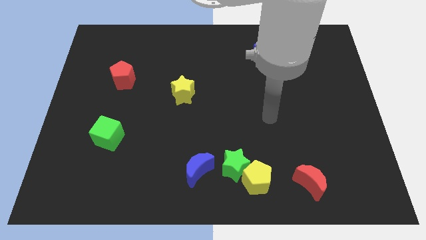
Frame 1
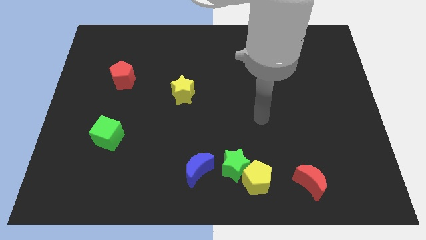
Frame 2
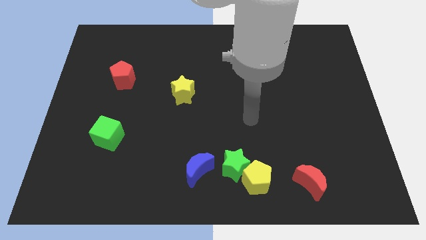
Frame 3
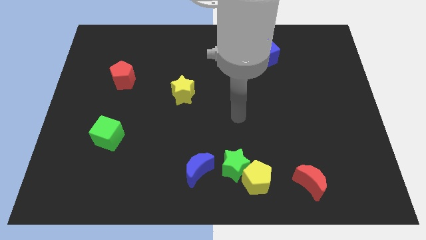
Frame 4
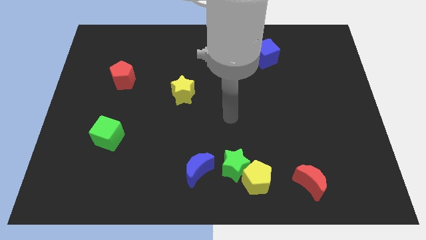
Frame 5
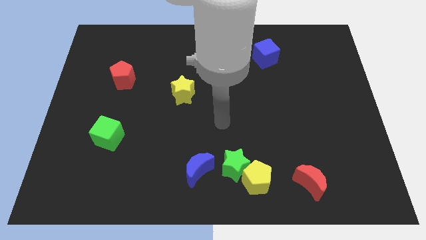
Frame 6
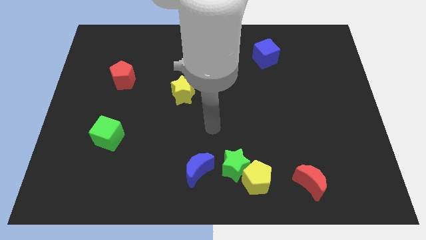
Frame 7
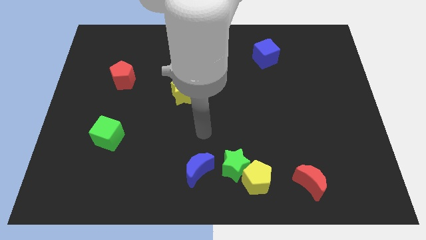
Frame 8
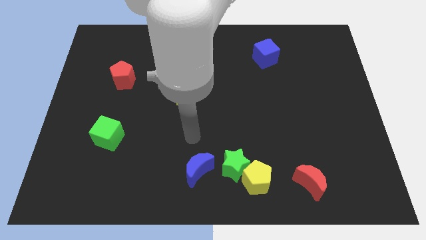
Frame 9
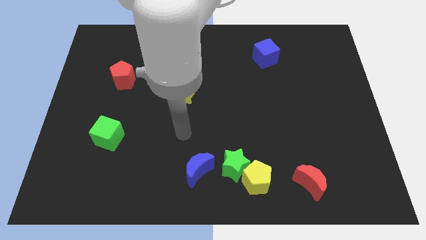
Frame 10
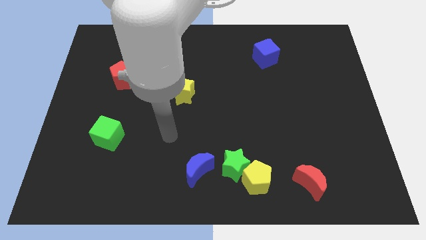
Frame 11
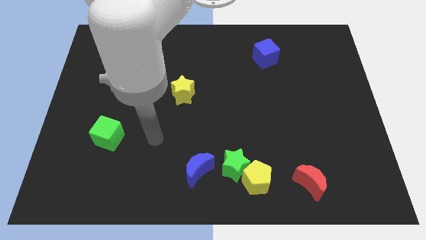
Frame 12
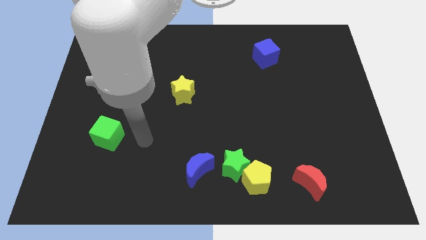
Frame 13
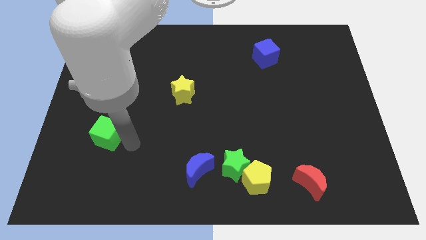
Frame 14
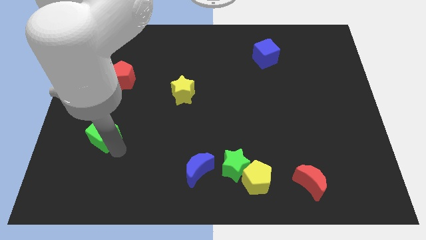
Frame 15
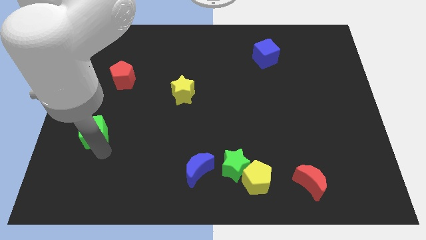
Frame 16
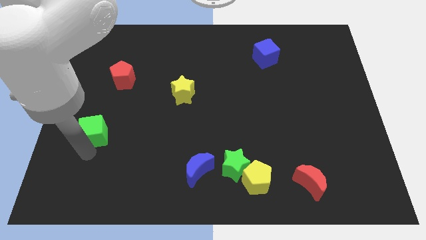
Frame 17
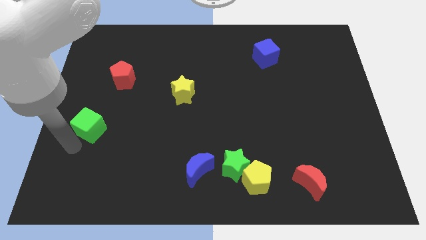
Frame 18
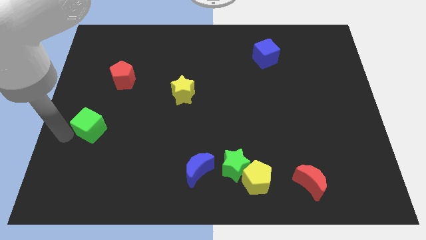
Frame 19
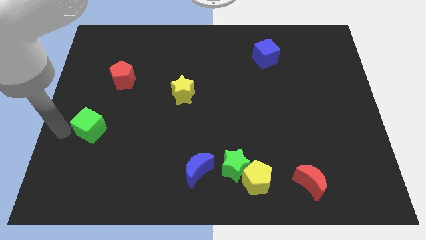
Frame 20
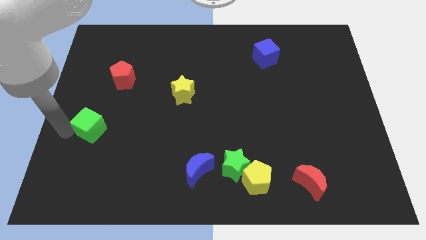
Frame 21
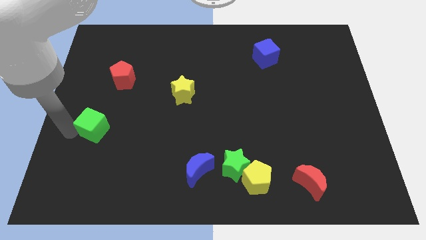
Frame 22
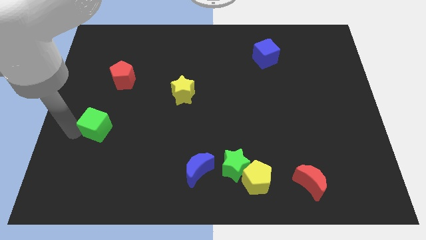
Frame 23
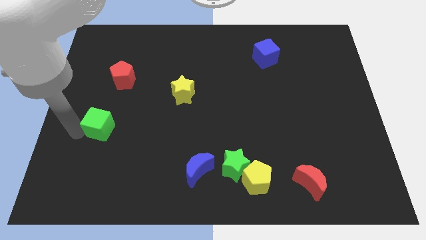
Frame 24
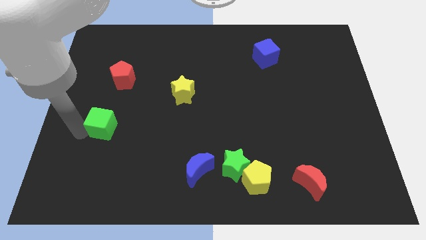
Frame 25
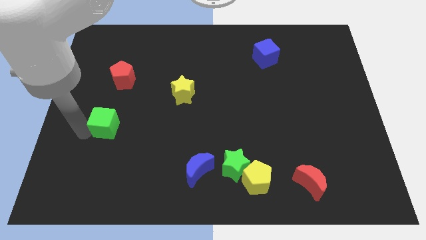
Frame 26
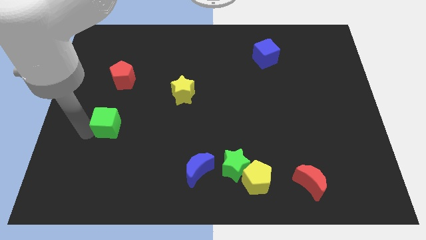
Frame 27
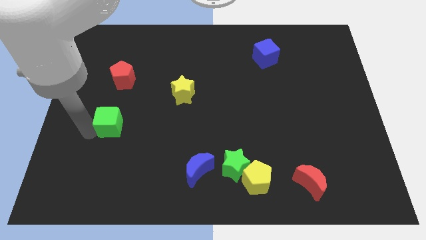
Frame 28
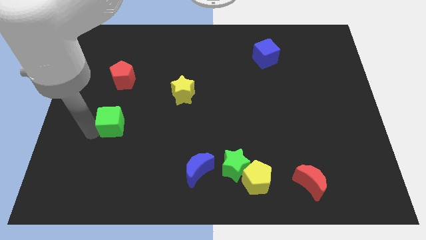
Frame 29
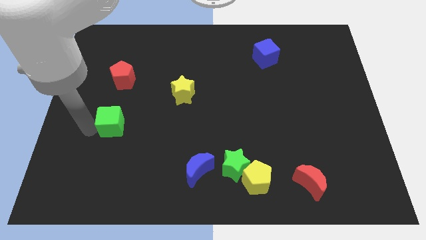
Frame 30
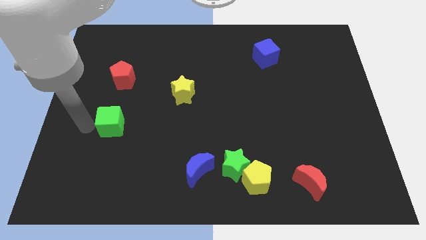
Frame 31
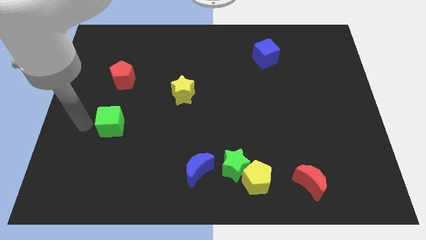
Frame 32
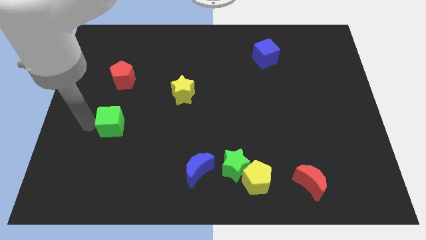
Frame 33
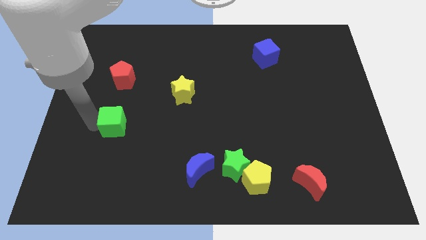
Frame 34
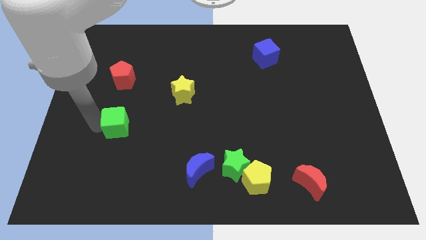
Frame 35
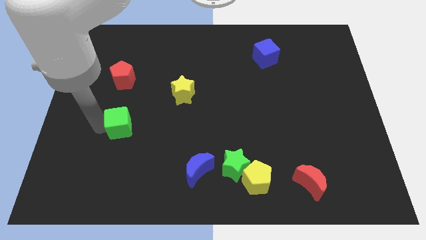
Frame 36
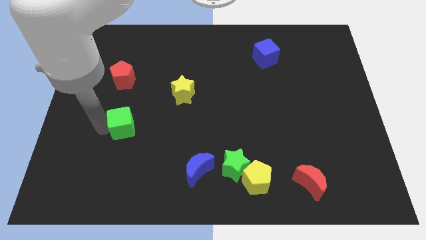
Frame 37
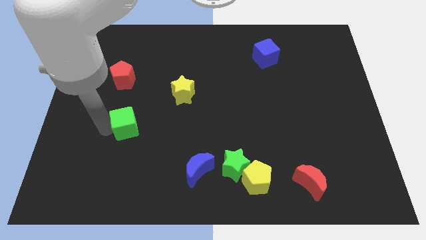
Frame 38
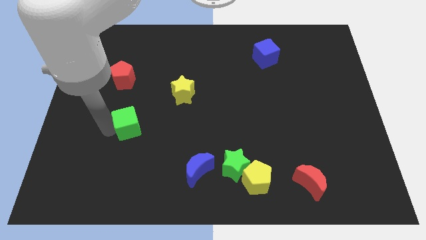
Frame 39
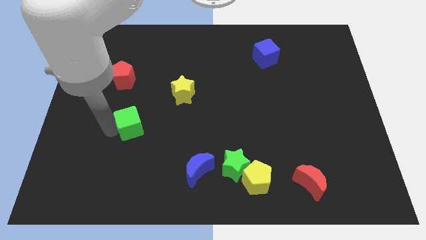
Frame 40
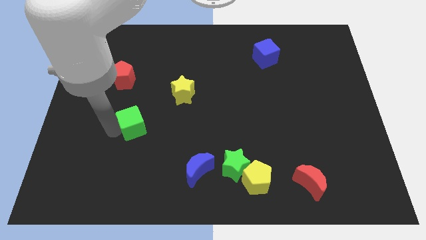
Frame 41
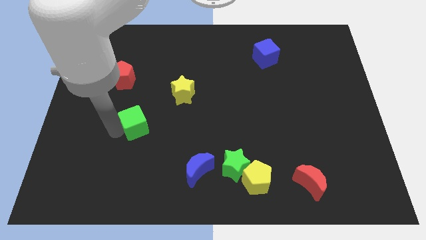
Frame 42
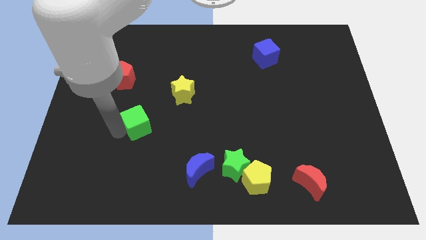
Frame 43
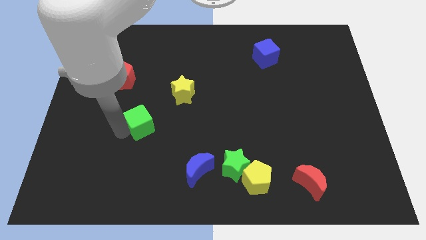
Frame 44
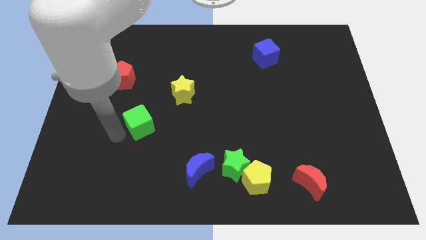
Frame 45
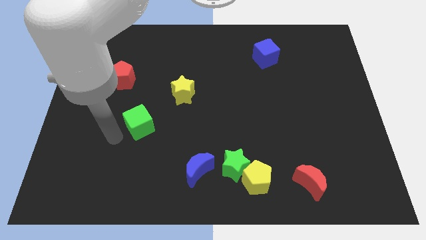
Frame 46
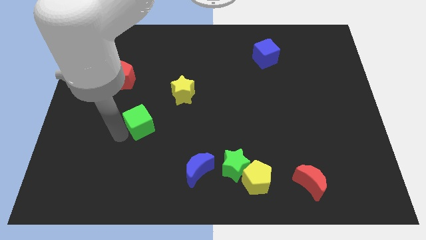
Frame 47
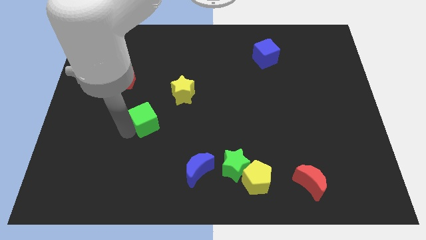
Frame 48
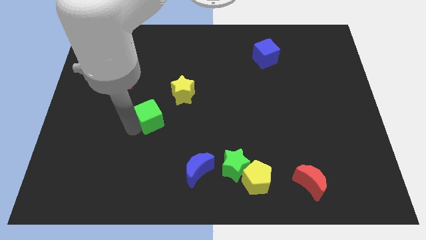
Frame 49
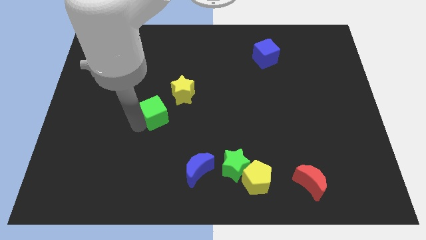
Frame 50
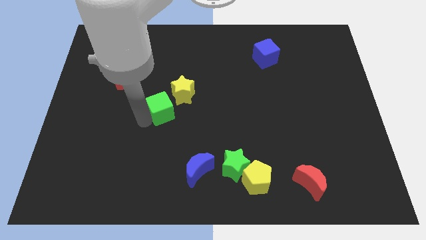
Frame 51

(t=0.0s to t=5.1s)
move the green cube to the middle of the board

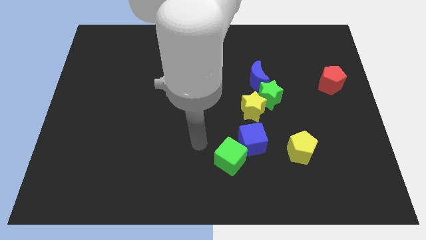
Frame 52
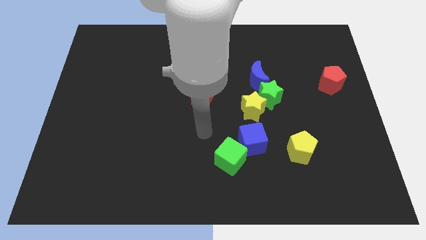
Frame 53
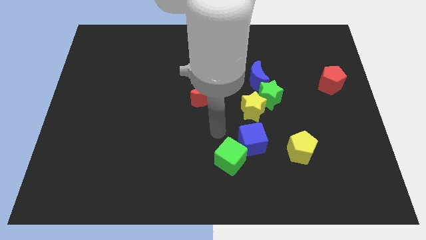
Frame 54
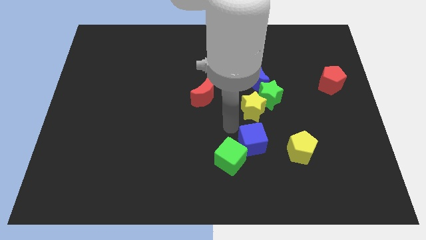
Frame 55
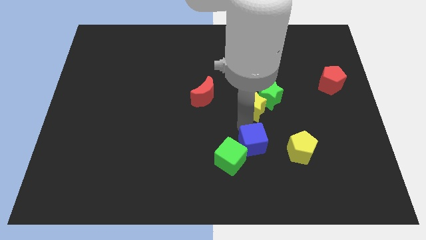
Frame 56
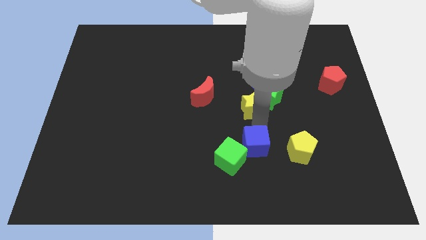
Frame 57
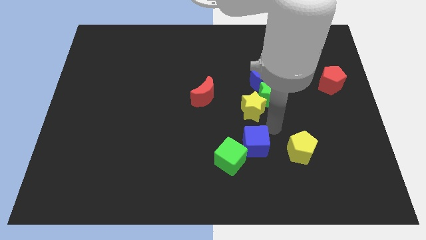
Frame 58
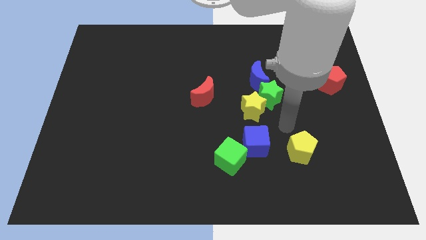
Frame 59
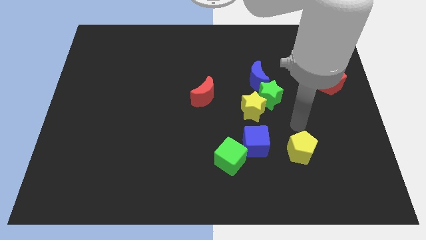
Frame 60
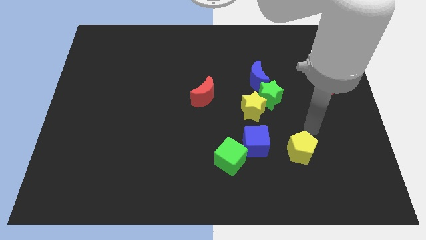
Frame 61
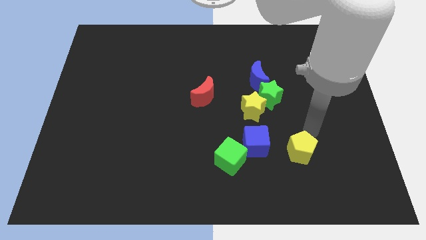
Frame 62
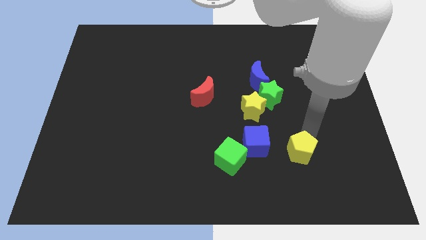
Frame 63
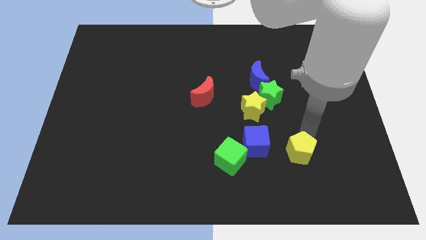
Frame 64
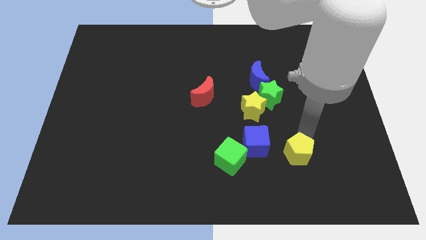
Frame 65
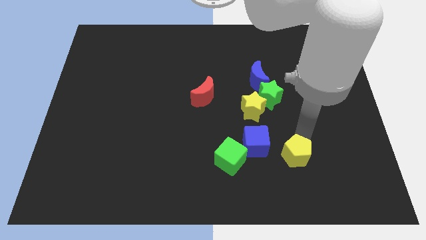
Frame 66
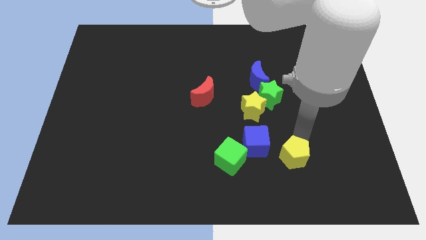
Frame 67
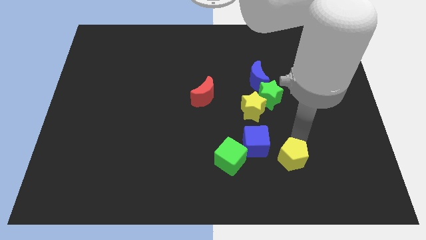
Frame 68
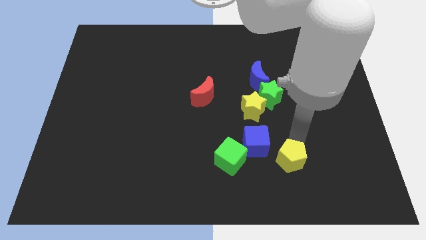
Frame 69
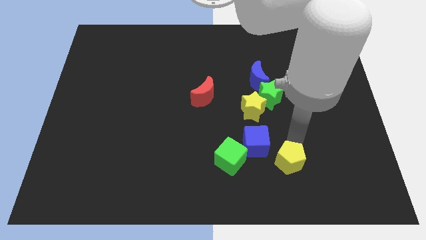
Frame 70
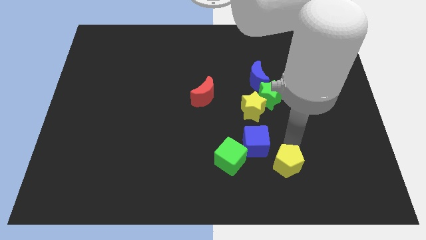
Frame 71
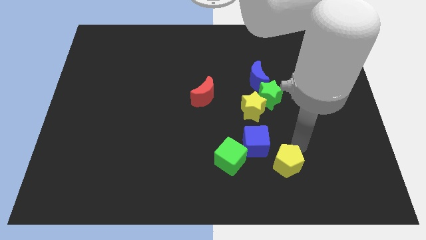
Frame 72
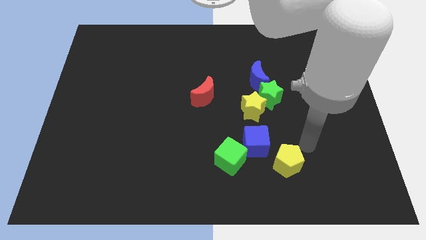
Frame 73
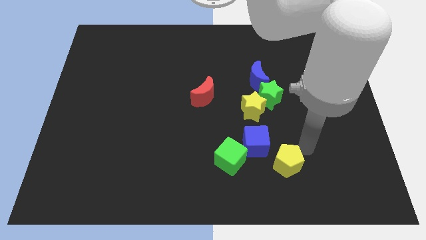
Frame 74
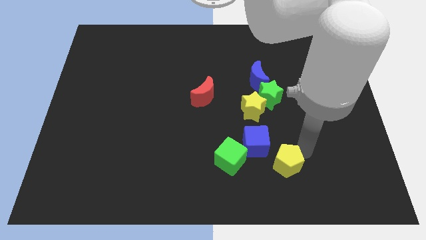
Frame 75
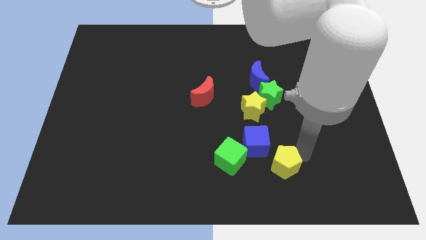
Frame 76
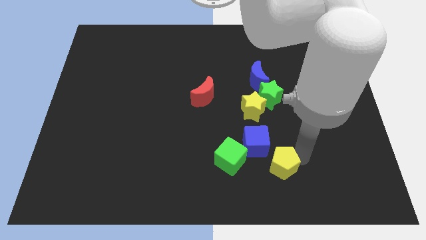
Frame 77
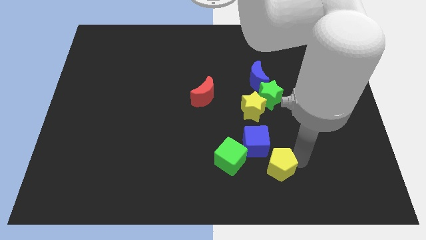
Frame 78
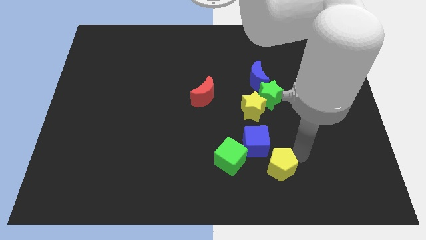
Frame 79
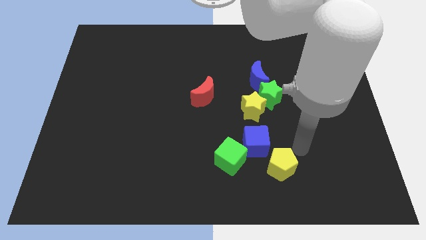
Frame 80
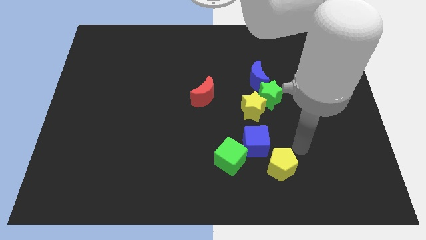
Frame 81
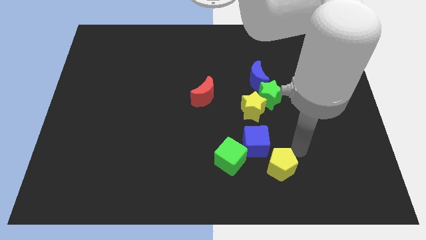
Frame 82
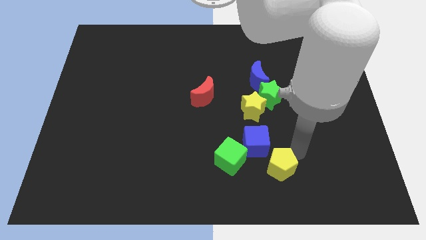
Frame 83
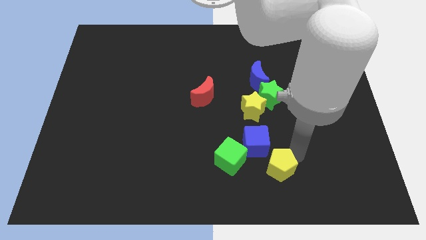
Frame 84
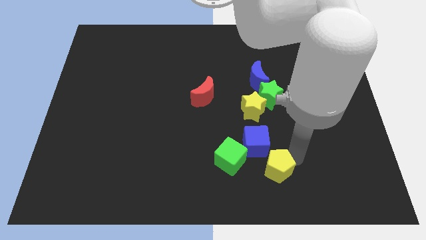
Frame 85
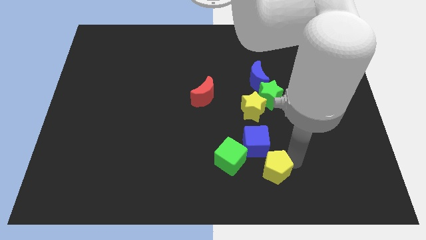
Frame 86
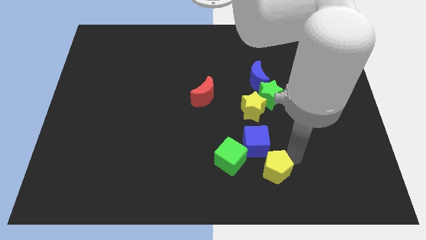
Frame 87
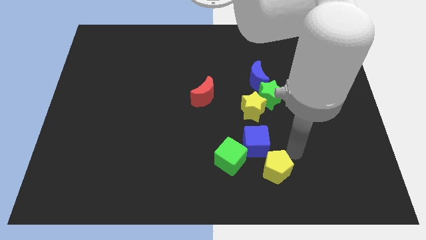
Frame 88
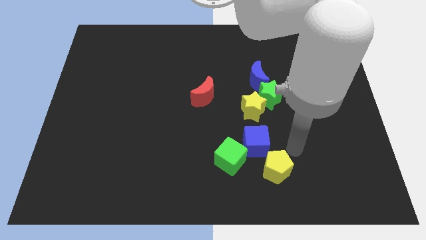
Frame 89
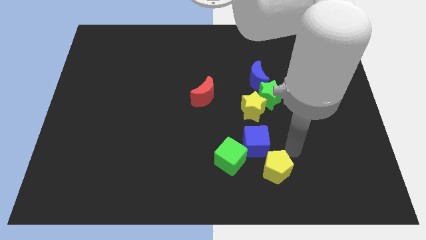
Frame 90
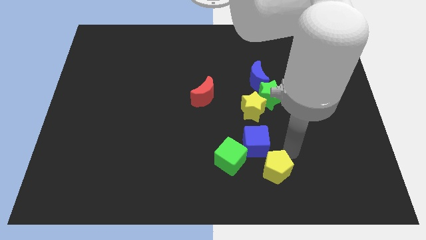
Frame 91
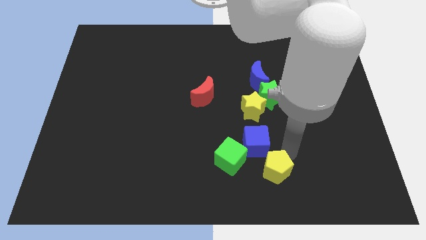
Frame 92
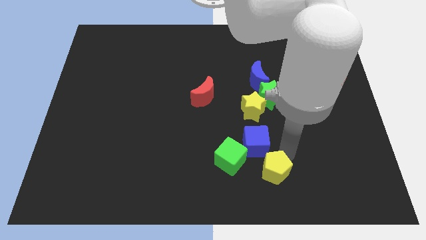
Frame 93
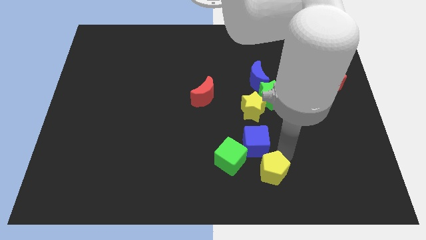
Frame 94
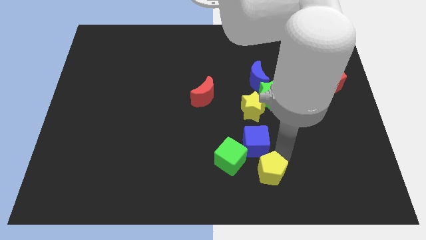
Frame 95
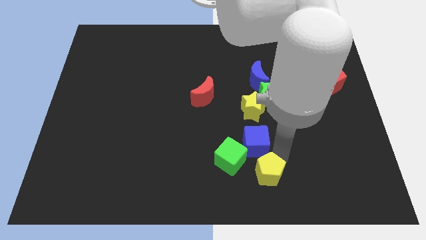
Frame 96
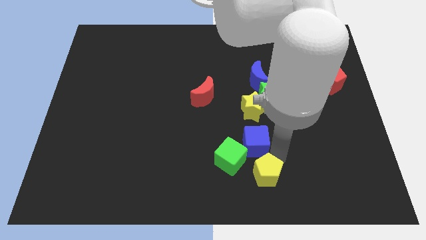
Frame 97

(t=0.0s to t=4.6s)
move the yellow pentagon to the bottom
